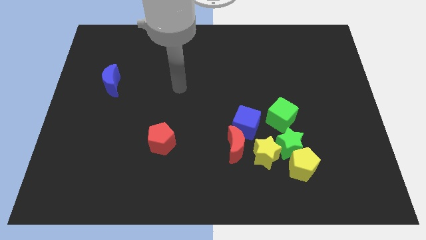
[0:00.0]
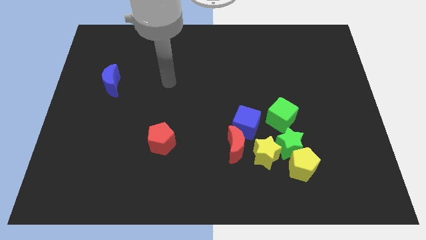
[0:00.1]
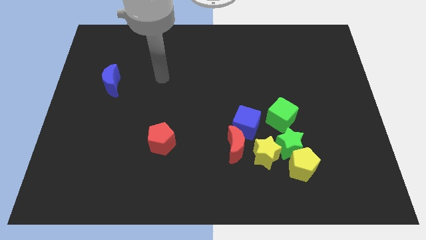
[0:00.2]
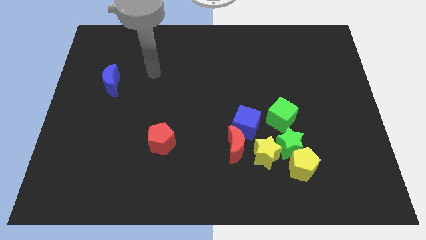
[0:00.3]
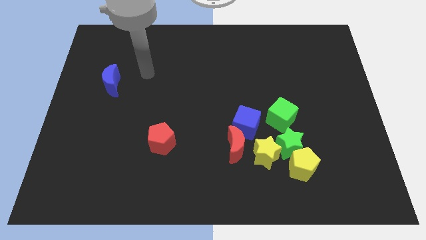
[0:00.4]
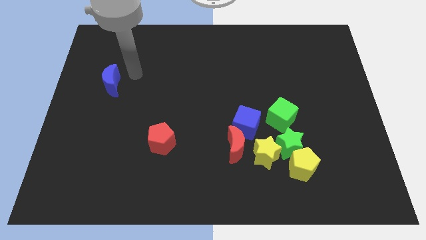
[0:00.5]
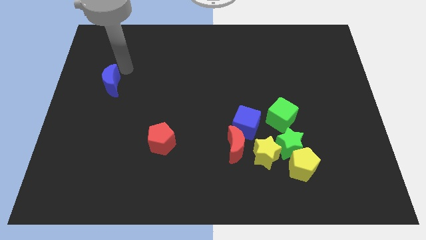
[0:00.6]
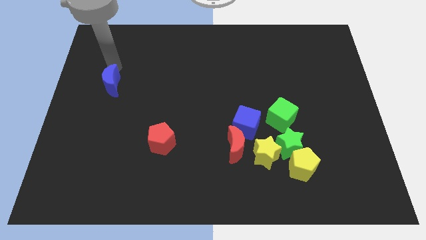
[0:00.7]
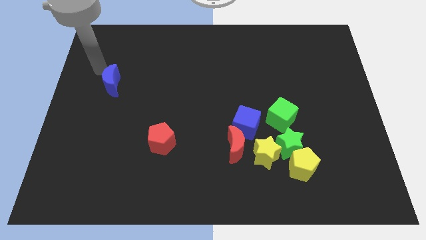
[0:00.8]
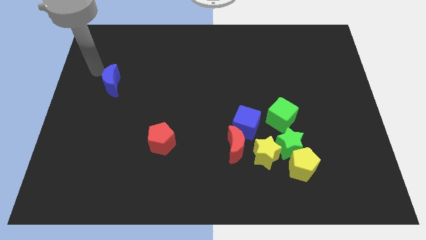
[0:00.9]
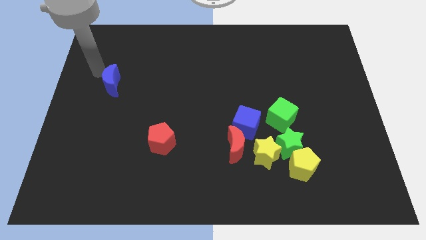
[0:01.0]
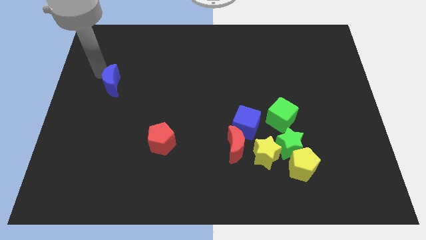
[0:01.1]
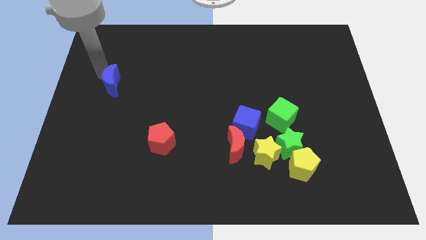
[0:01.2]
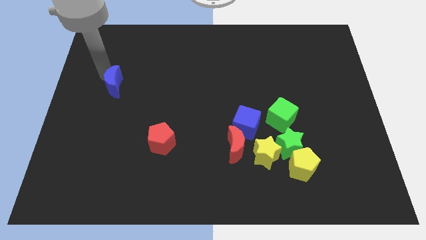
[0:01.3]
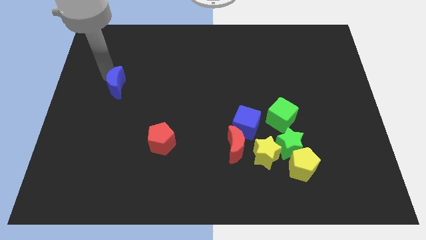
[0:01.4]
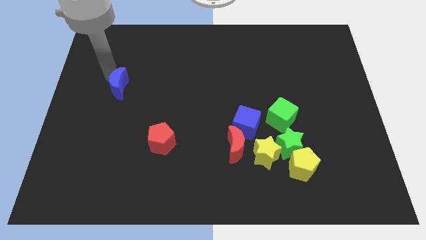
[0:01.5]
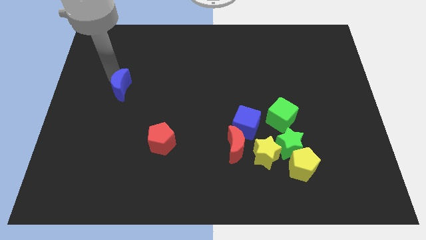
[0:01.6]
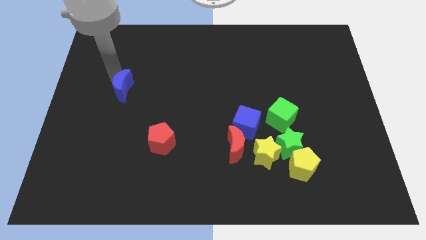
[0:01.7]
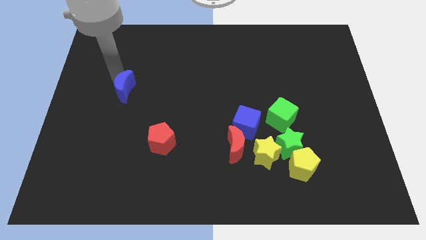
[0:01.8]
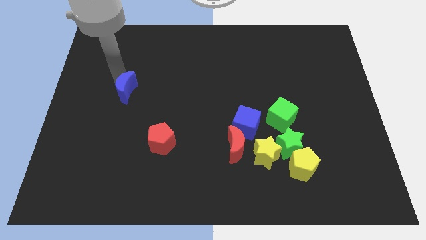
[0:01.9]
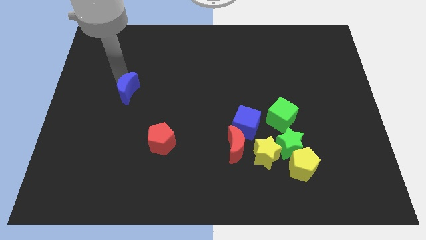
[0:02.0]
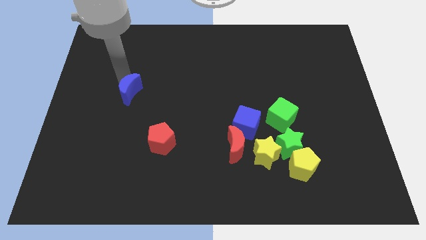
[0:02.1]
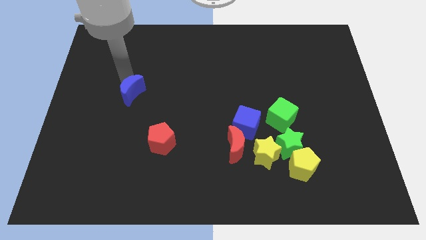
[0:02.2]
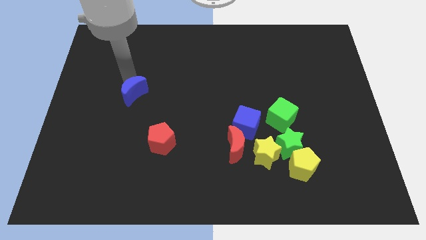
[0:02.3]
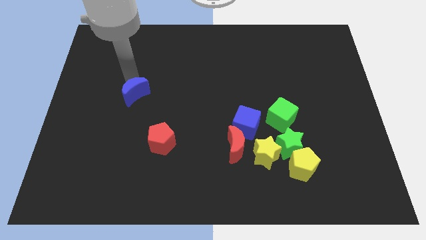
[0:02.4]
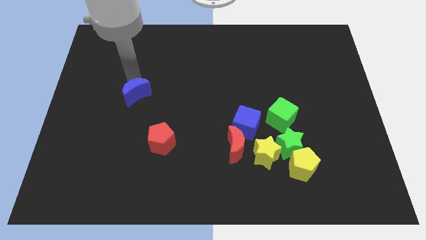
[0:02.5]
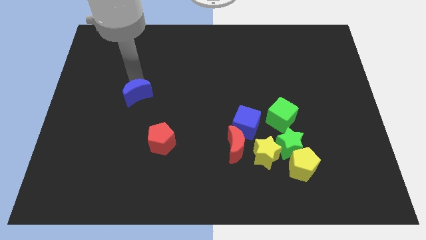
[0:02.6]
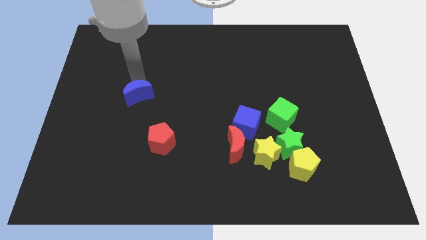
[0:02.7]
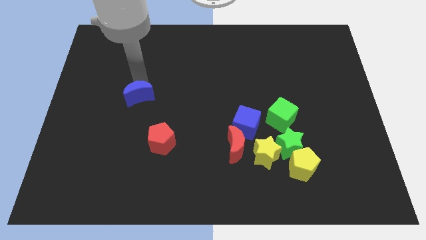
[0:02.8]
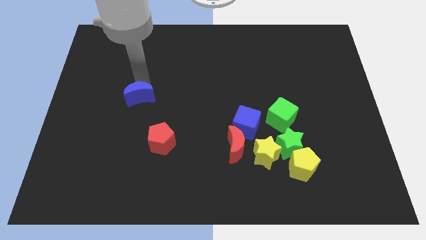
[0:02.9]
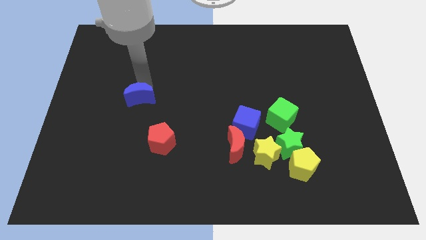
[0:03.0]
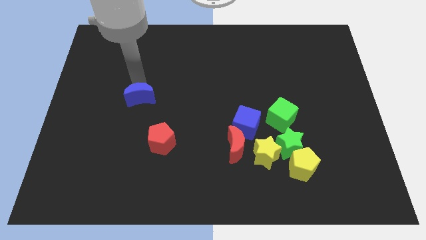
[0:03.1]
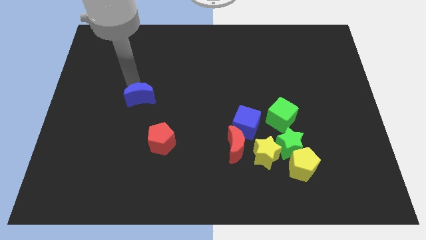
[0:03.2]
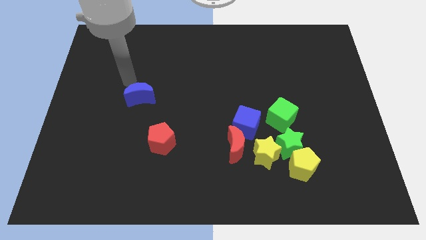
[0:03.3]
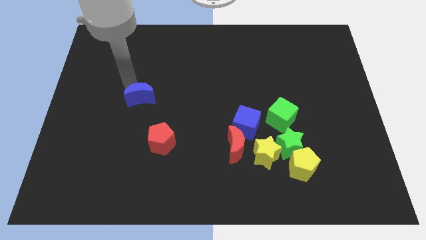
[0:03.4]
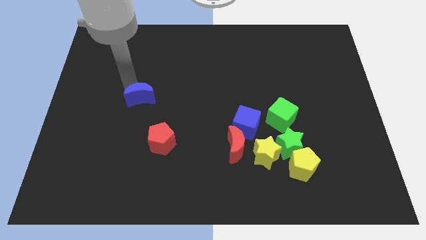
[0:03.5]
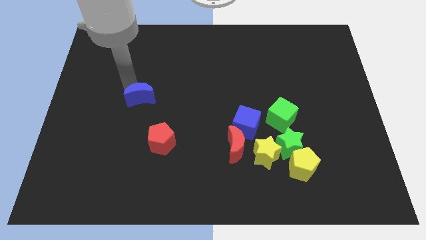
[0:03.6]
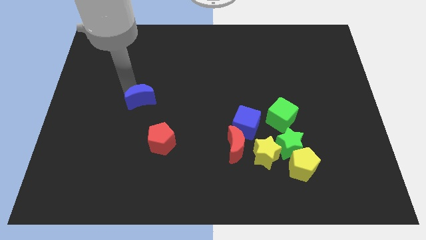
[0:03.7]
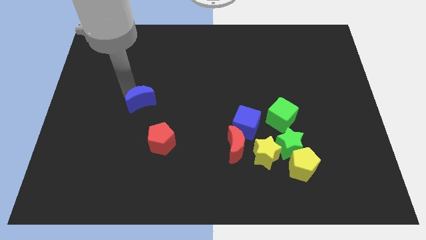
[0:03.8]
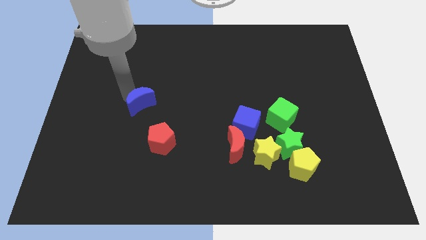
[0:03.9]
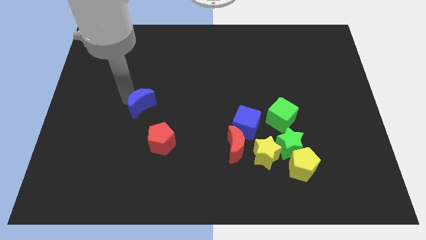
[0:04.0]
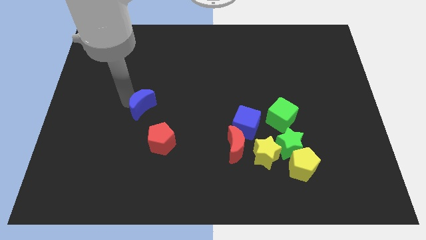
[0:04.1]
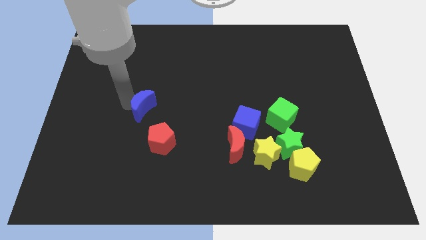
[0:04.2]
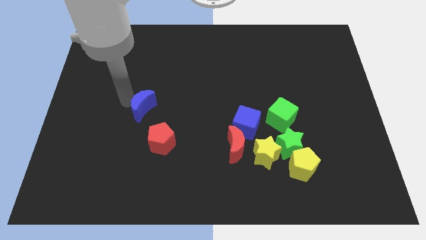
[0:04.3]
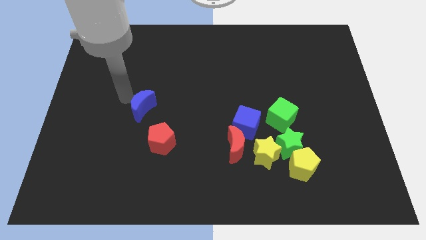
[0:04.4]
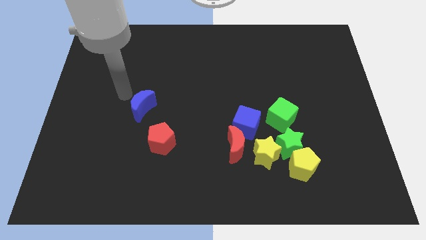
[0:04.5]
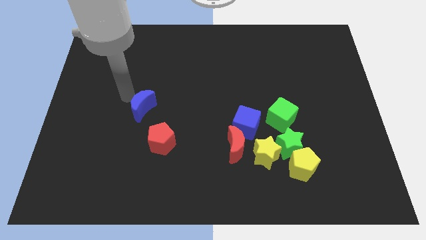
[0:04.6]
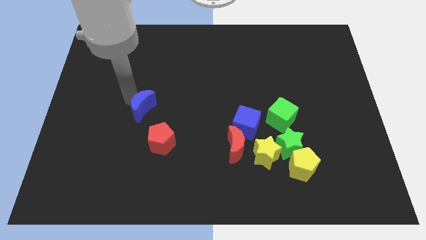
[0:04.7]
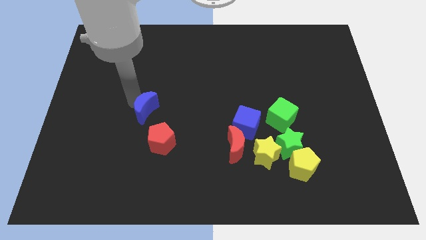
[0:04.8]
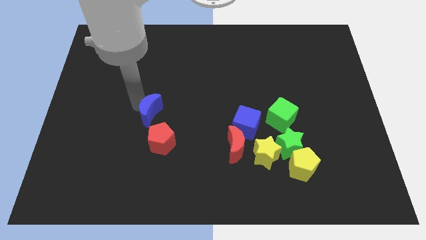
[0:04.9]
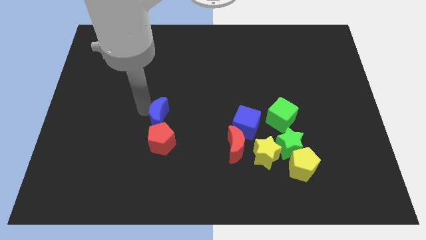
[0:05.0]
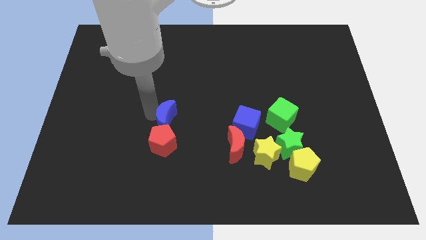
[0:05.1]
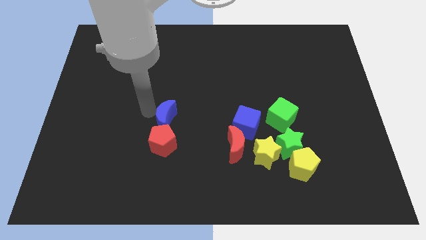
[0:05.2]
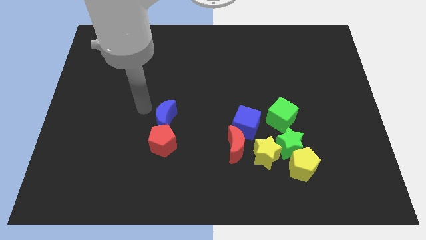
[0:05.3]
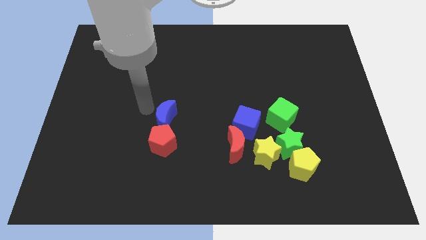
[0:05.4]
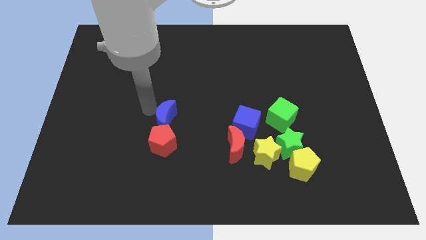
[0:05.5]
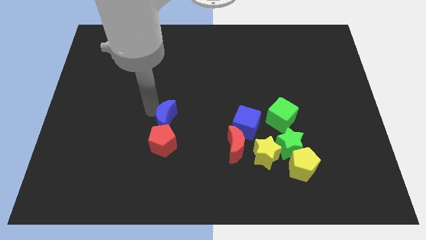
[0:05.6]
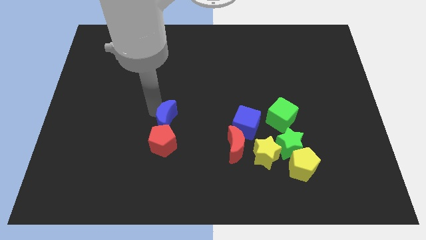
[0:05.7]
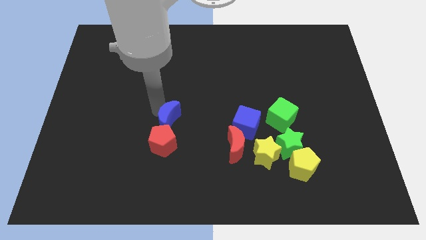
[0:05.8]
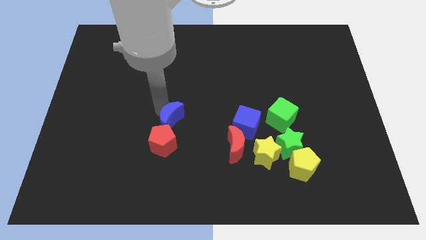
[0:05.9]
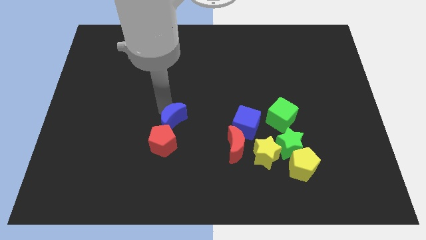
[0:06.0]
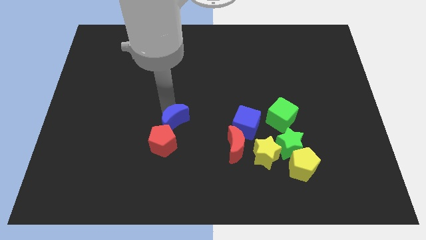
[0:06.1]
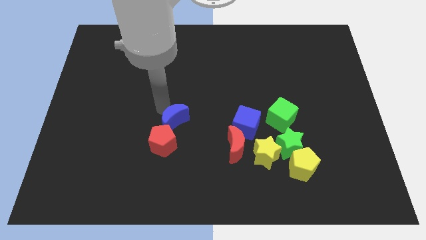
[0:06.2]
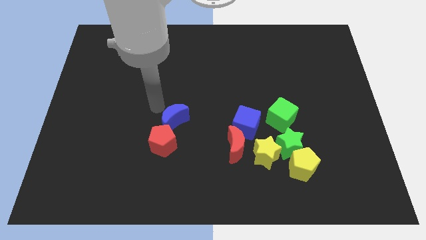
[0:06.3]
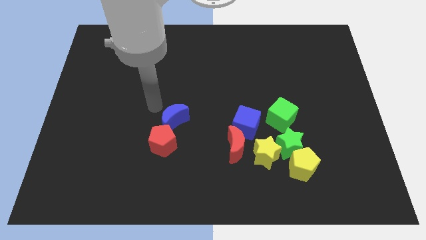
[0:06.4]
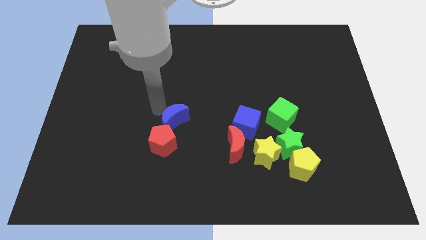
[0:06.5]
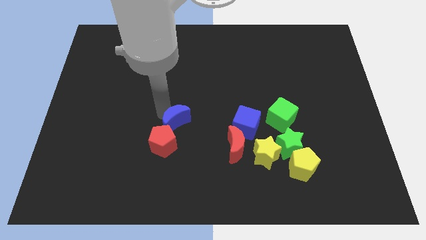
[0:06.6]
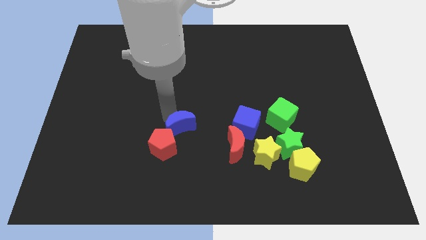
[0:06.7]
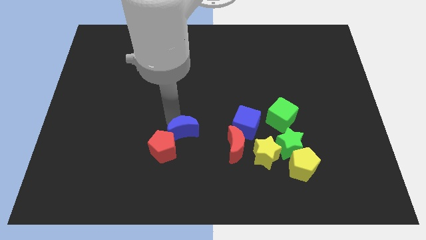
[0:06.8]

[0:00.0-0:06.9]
move the blue moon to the right side of the red pentagon
